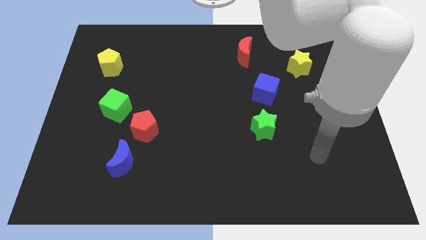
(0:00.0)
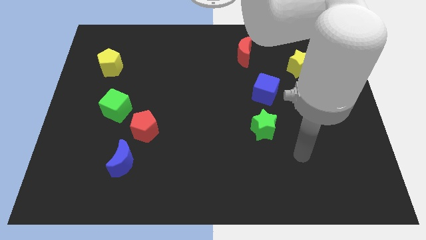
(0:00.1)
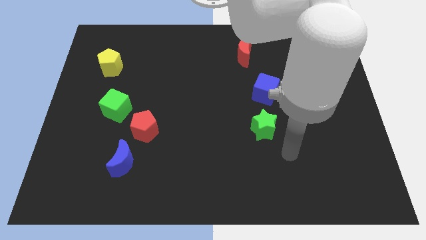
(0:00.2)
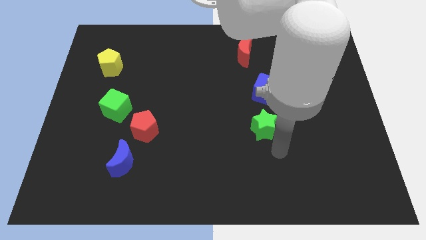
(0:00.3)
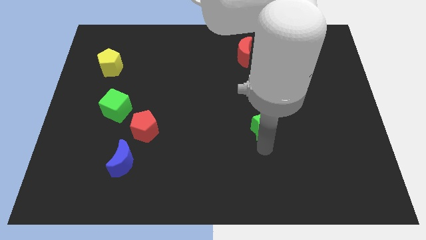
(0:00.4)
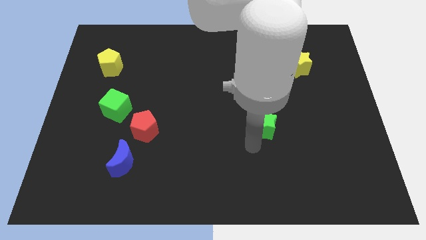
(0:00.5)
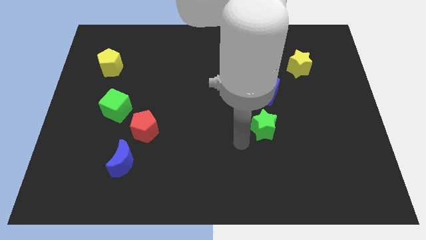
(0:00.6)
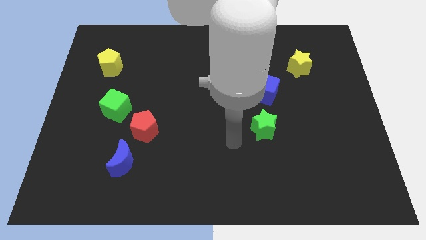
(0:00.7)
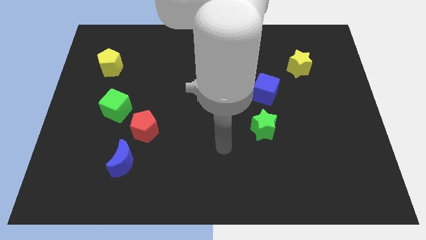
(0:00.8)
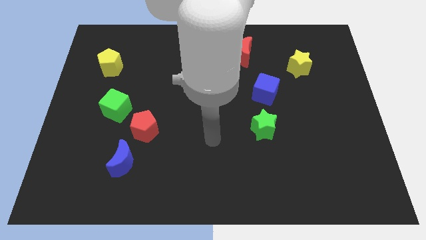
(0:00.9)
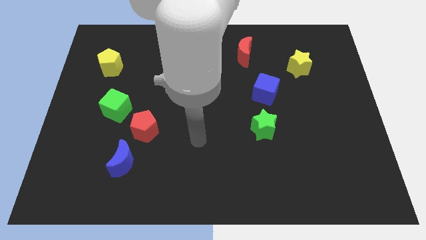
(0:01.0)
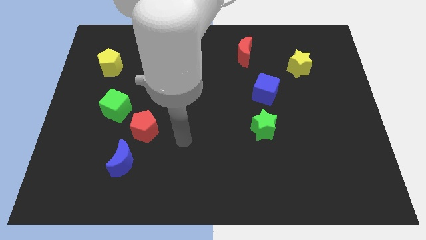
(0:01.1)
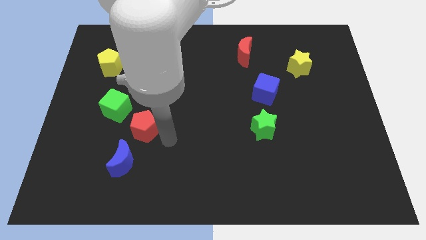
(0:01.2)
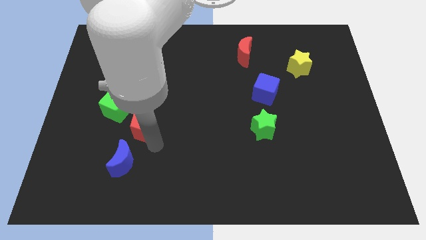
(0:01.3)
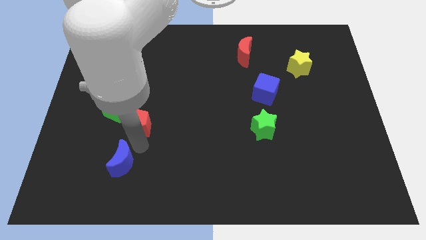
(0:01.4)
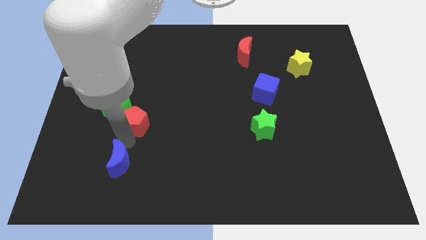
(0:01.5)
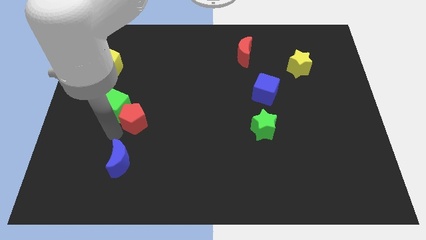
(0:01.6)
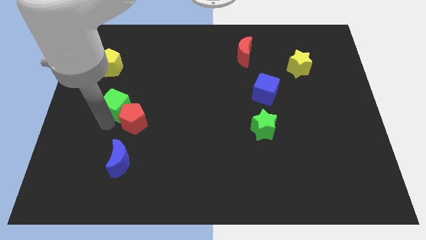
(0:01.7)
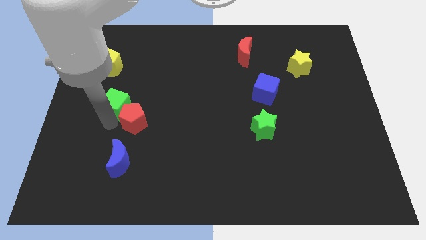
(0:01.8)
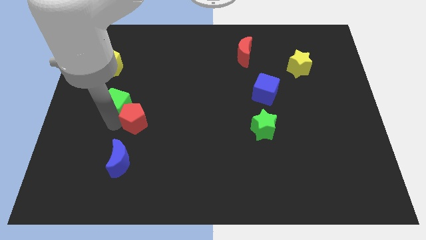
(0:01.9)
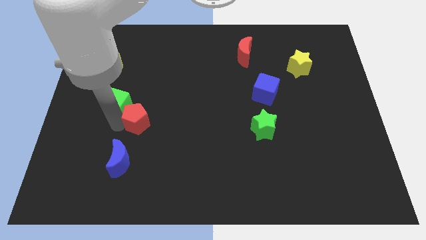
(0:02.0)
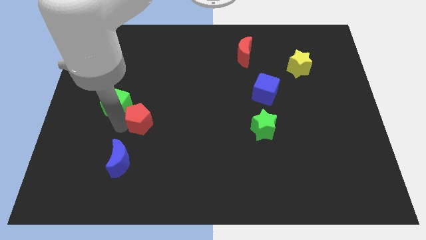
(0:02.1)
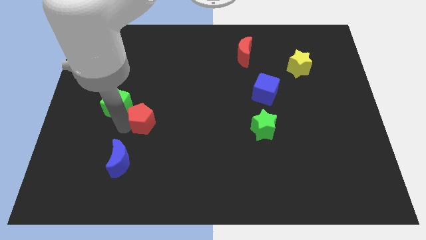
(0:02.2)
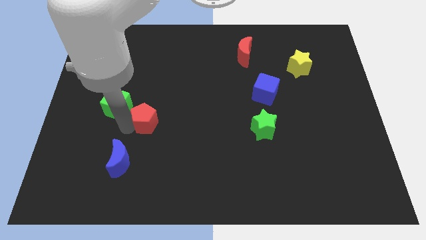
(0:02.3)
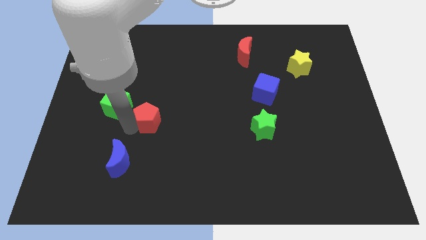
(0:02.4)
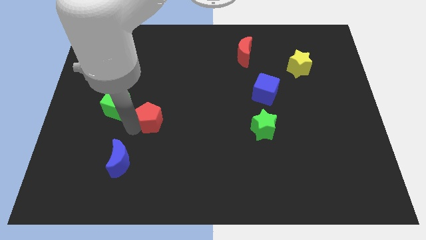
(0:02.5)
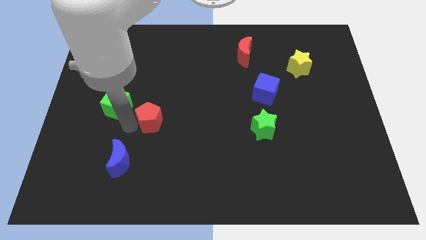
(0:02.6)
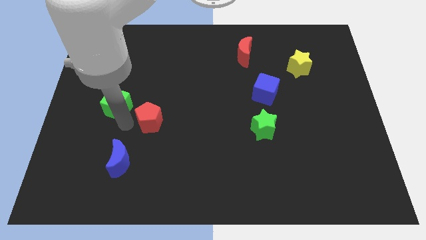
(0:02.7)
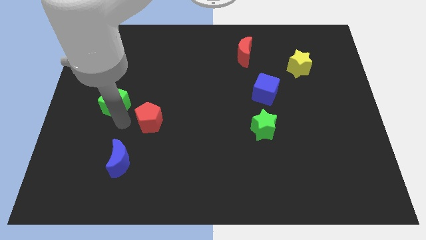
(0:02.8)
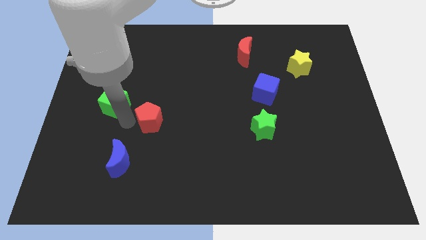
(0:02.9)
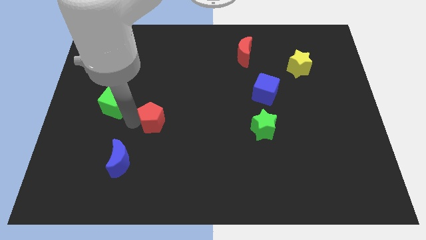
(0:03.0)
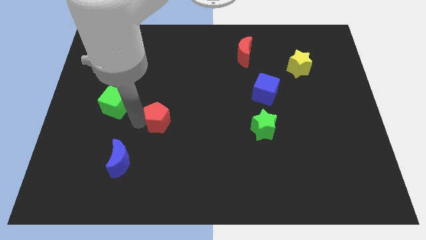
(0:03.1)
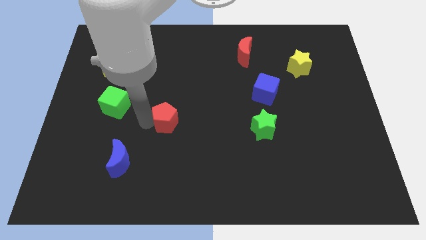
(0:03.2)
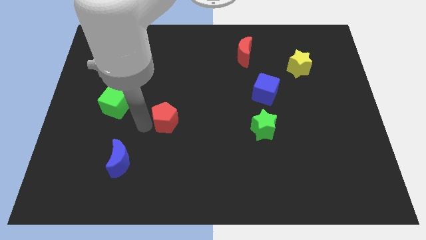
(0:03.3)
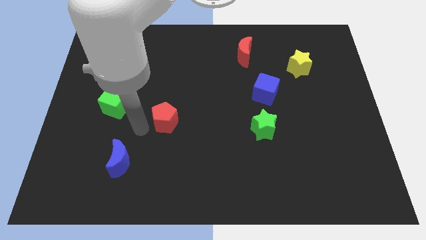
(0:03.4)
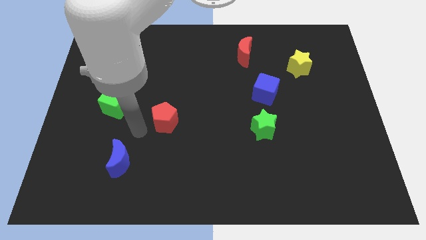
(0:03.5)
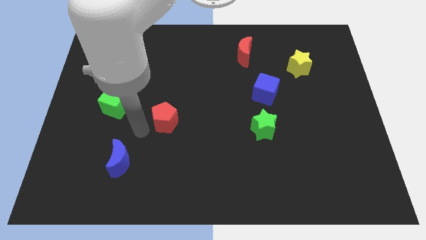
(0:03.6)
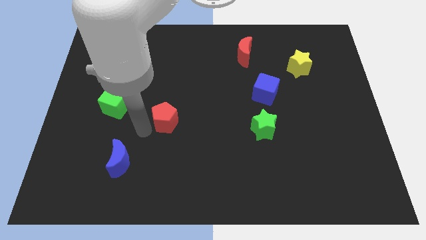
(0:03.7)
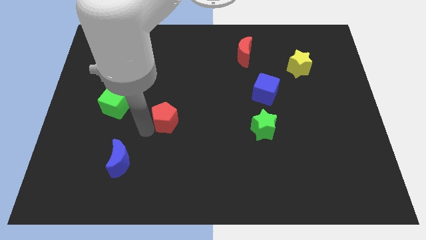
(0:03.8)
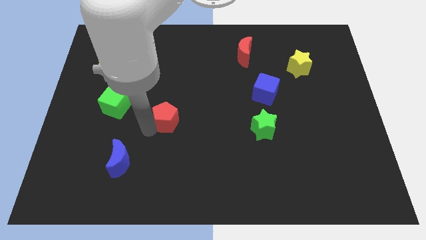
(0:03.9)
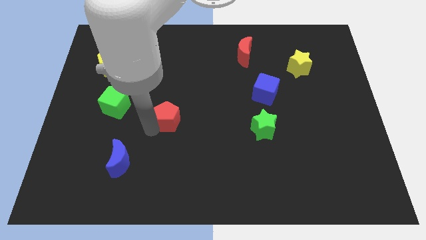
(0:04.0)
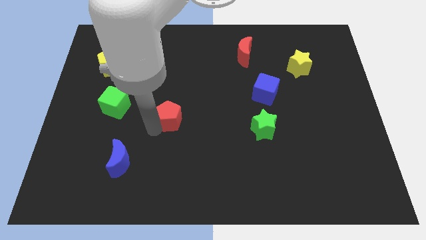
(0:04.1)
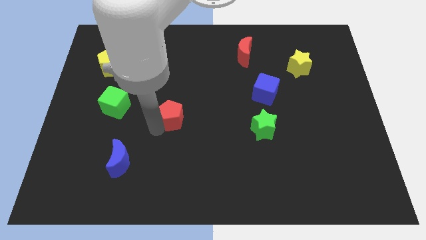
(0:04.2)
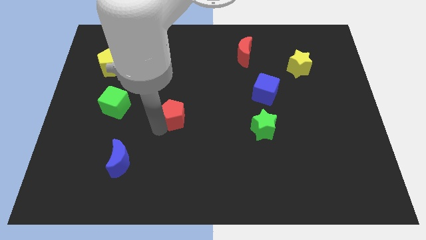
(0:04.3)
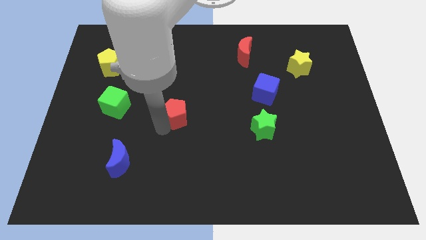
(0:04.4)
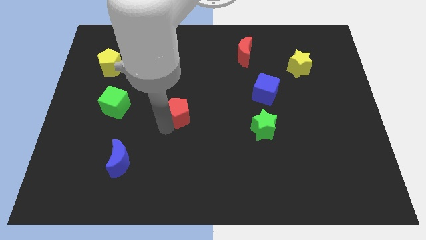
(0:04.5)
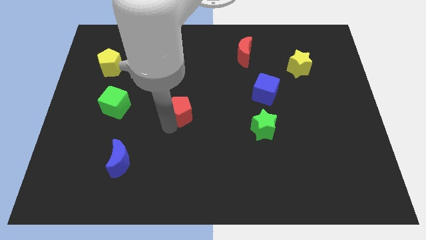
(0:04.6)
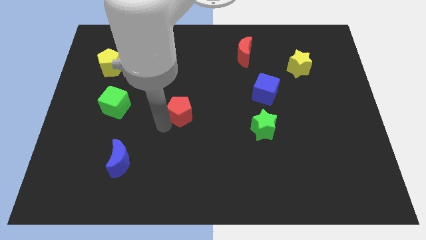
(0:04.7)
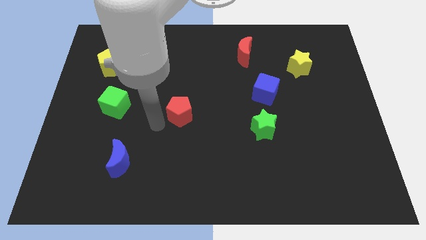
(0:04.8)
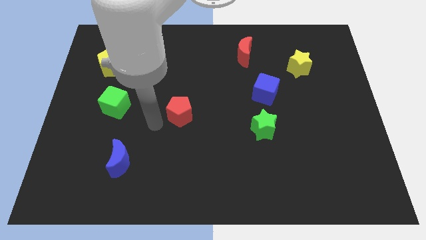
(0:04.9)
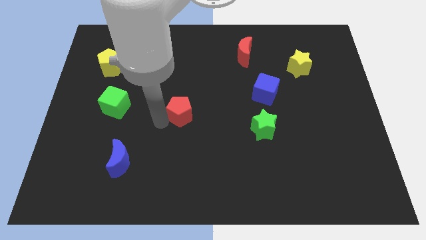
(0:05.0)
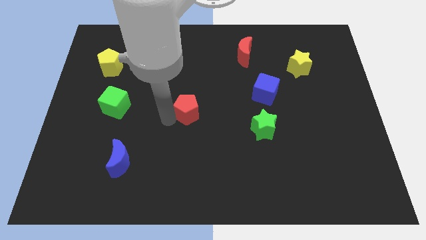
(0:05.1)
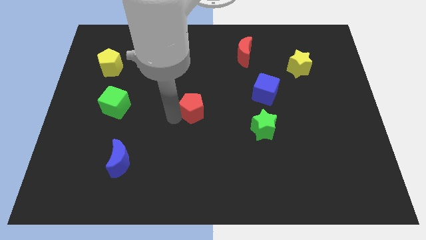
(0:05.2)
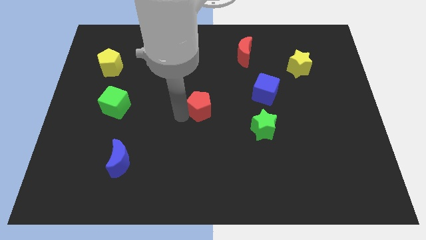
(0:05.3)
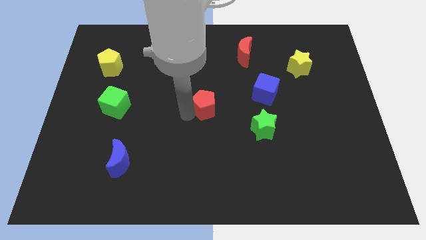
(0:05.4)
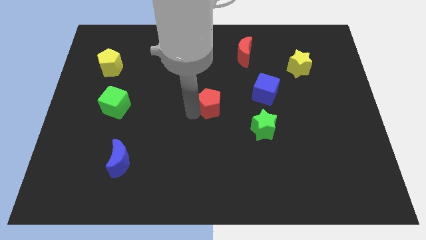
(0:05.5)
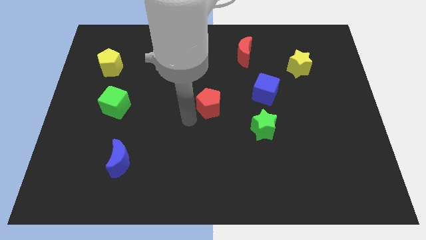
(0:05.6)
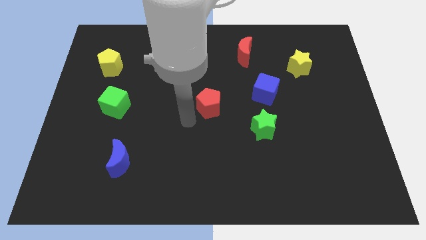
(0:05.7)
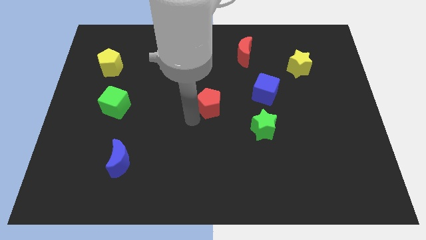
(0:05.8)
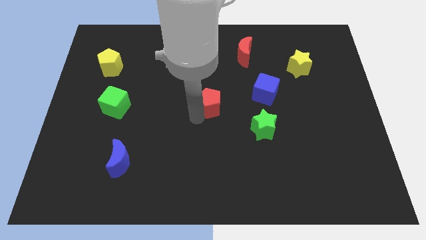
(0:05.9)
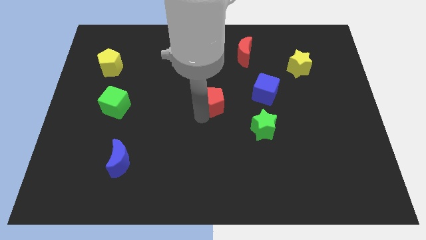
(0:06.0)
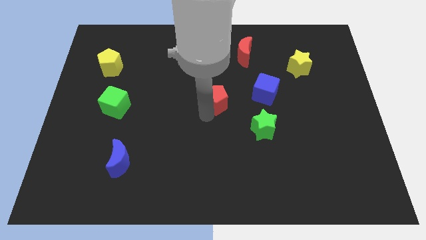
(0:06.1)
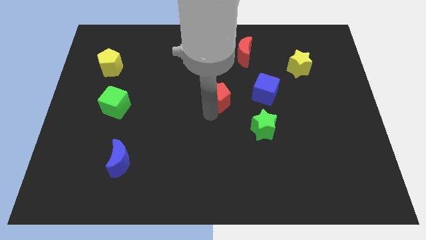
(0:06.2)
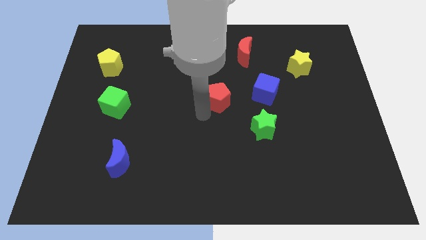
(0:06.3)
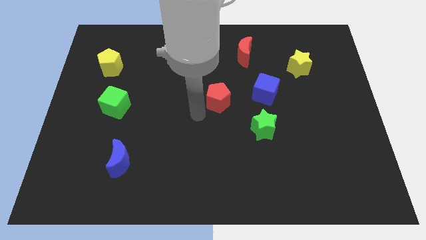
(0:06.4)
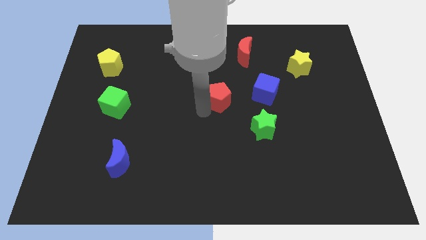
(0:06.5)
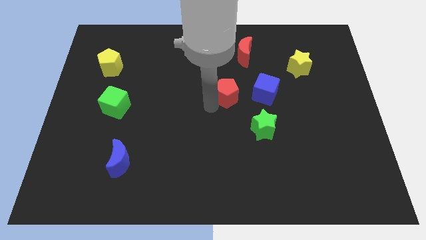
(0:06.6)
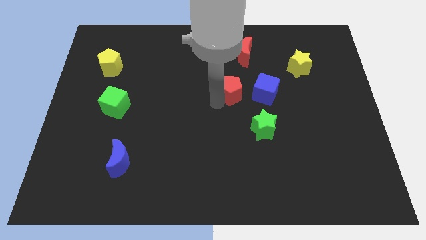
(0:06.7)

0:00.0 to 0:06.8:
slide the red pentagon to the bottom side of the red moon

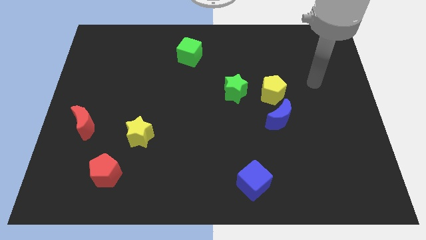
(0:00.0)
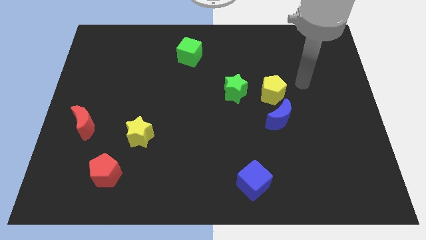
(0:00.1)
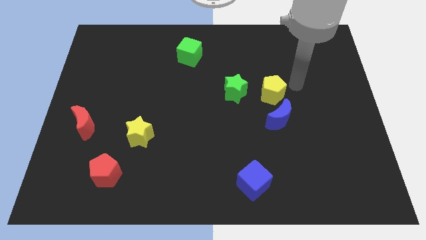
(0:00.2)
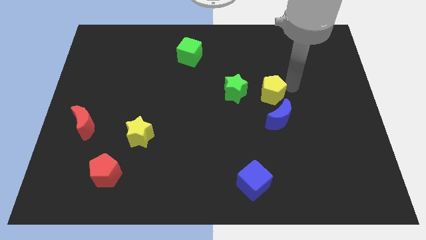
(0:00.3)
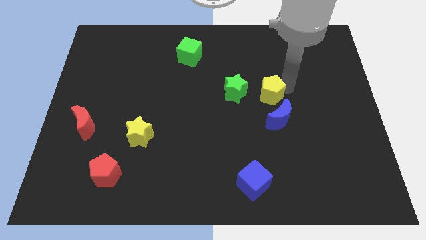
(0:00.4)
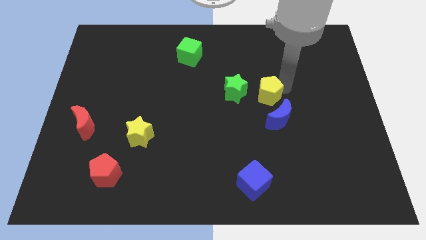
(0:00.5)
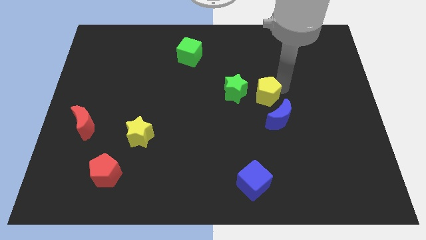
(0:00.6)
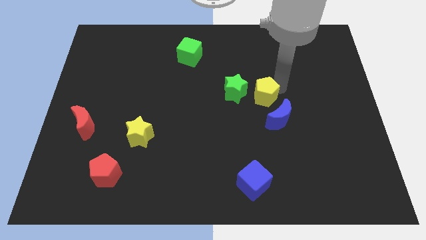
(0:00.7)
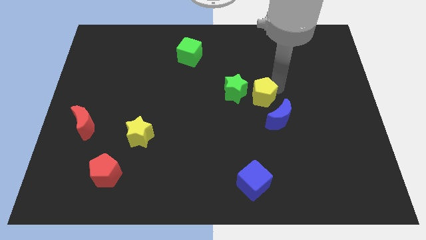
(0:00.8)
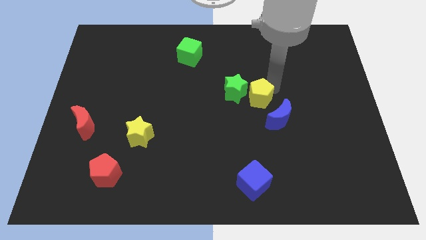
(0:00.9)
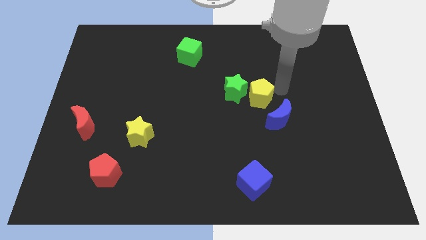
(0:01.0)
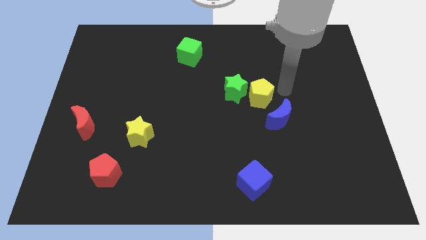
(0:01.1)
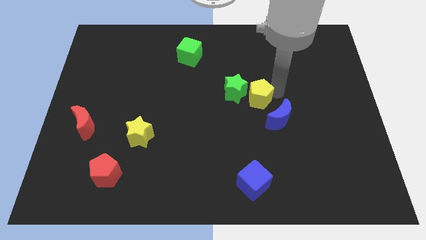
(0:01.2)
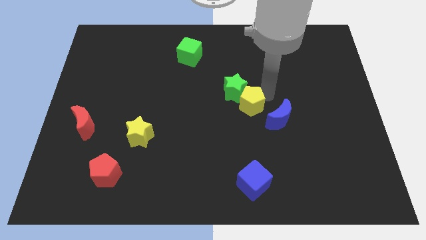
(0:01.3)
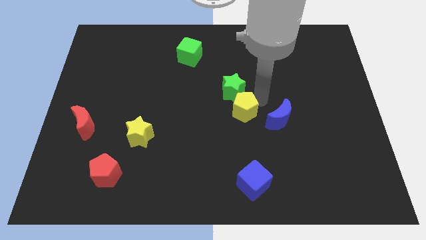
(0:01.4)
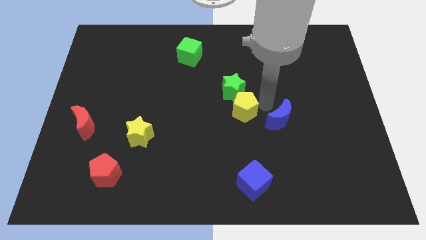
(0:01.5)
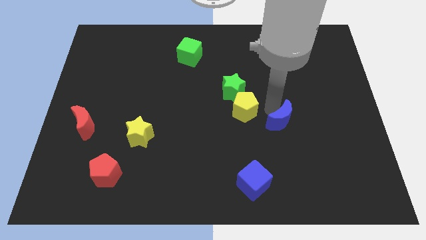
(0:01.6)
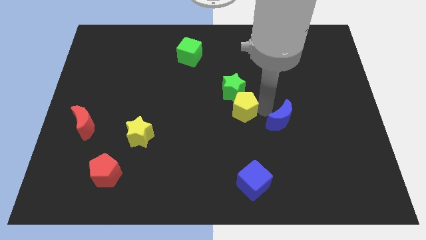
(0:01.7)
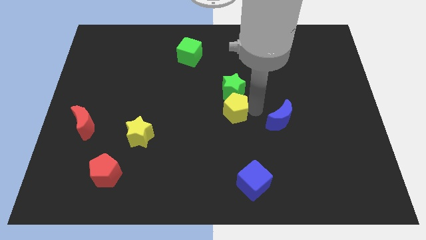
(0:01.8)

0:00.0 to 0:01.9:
move the yellow pentagon to the bottom left side of the green star
